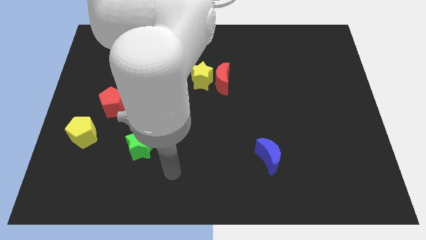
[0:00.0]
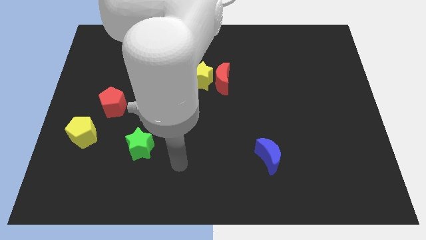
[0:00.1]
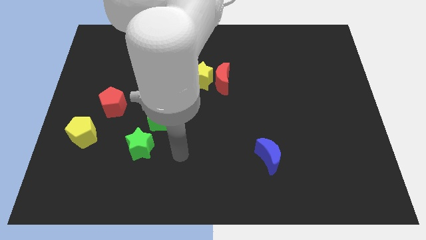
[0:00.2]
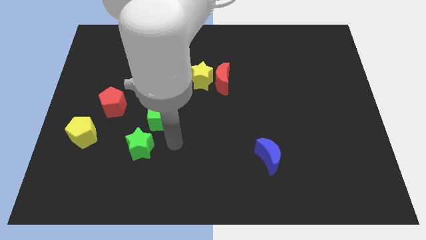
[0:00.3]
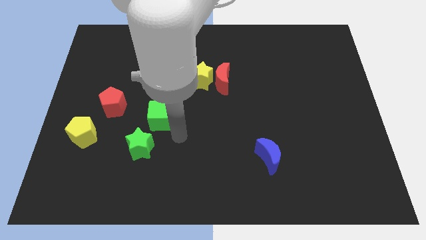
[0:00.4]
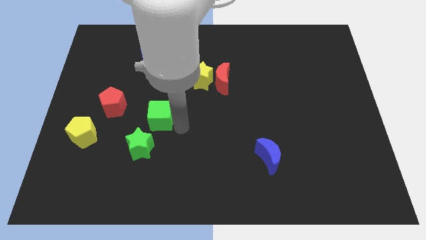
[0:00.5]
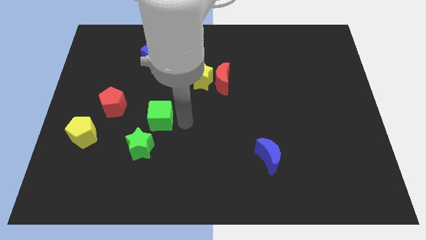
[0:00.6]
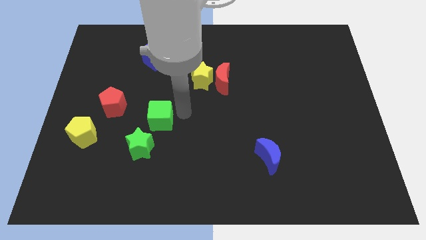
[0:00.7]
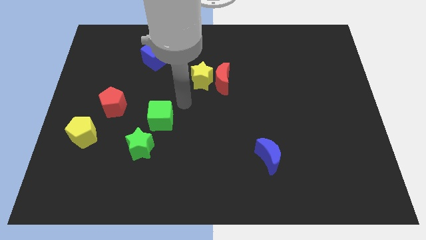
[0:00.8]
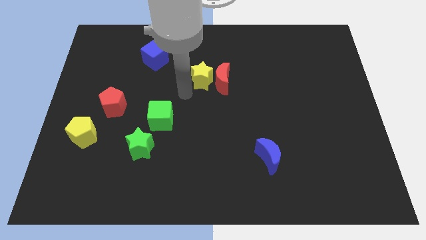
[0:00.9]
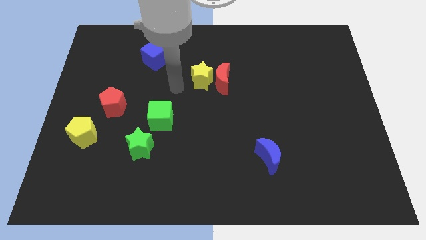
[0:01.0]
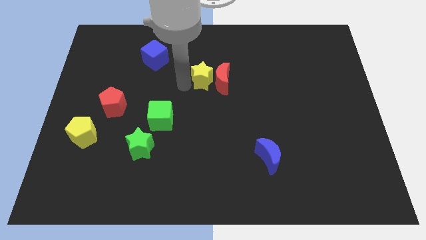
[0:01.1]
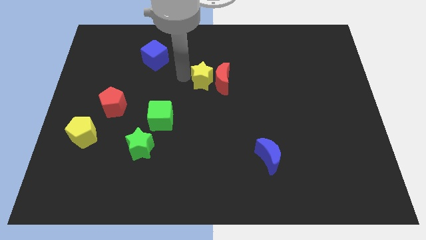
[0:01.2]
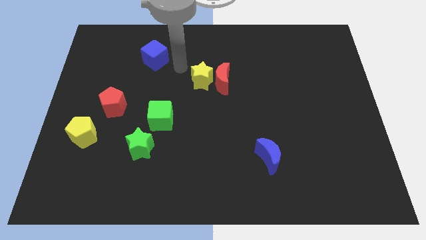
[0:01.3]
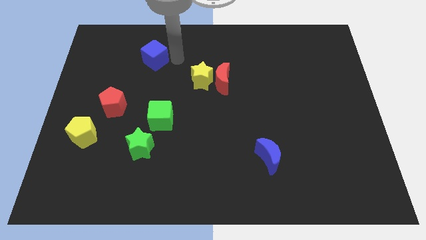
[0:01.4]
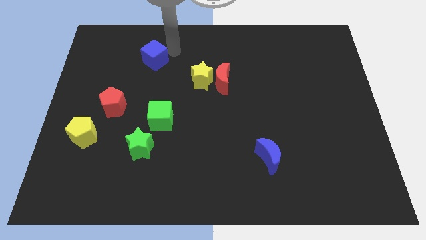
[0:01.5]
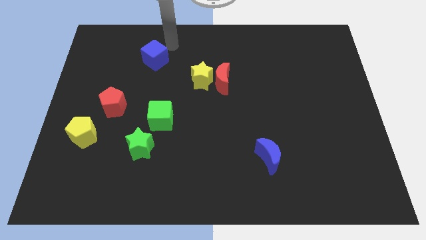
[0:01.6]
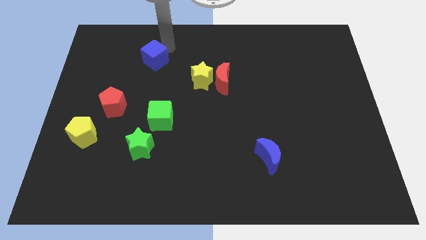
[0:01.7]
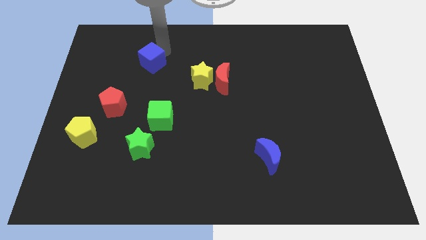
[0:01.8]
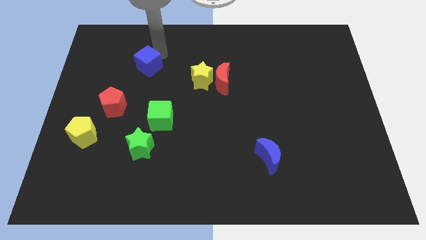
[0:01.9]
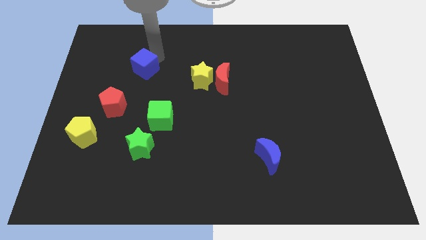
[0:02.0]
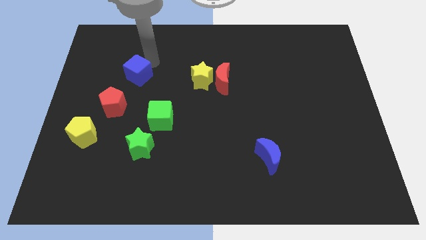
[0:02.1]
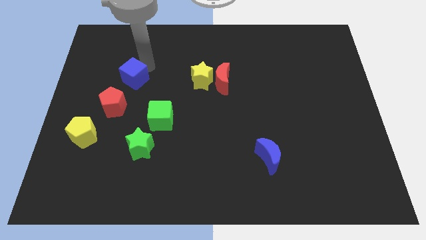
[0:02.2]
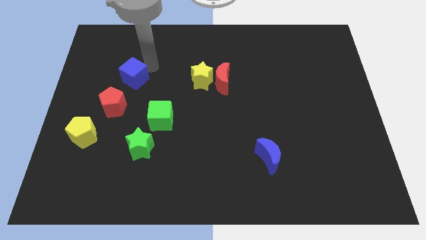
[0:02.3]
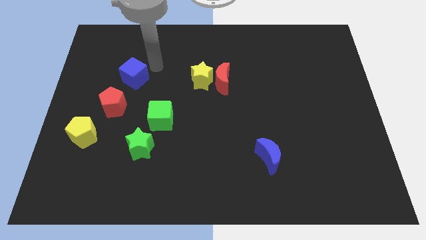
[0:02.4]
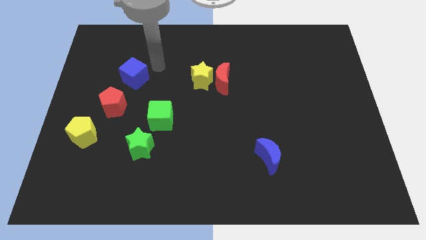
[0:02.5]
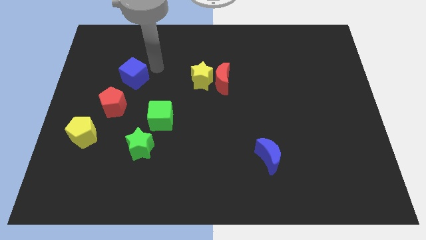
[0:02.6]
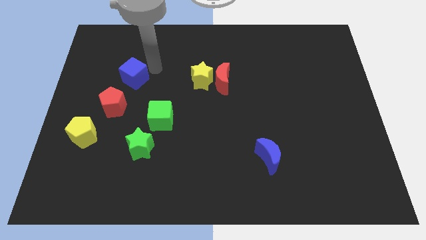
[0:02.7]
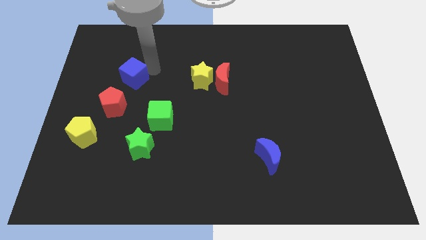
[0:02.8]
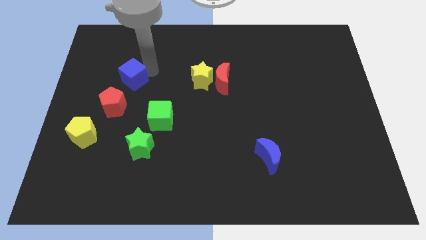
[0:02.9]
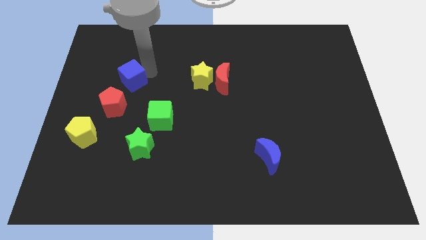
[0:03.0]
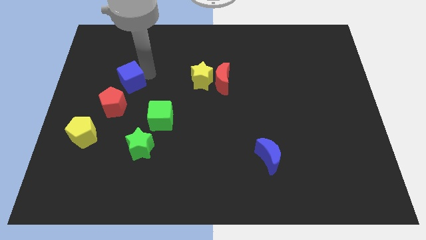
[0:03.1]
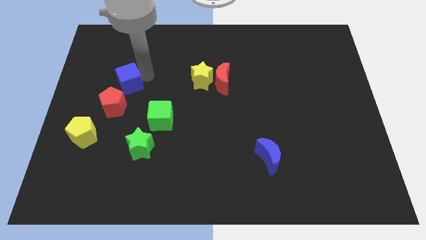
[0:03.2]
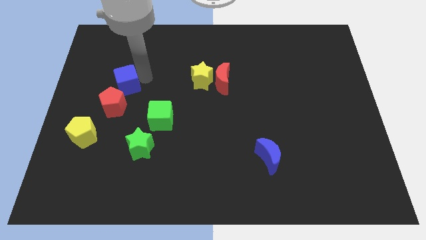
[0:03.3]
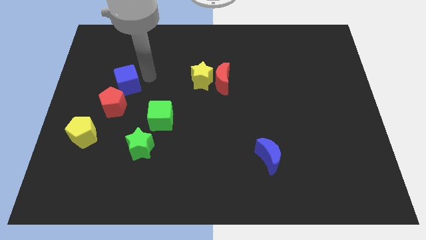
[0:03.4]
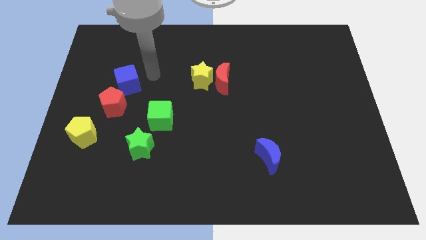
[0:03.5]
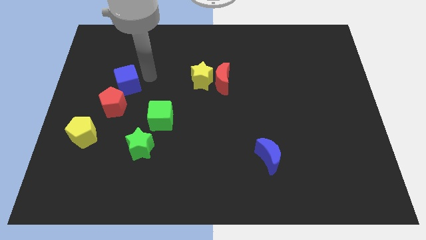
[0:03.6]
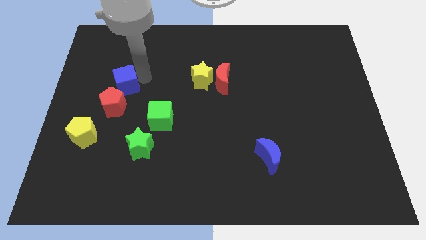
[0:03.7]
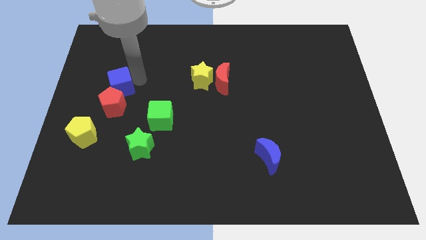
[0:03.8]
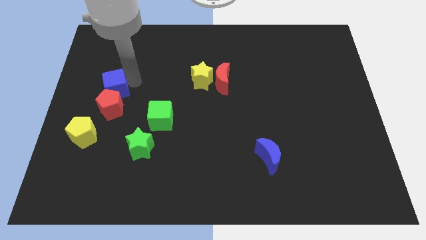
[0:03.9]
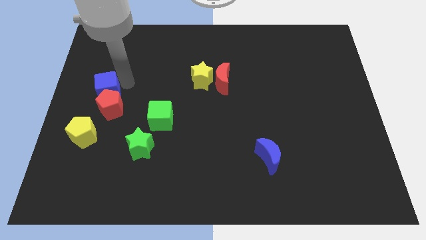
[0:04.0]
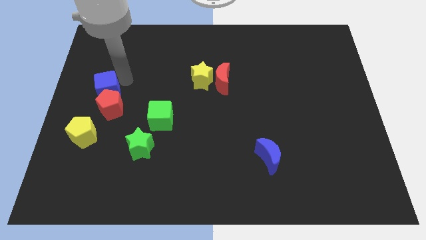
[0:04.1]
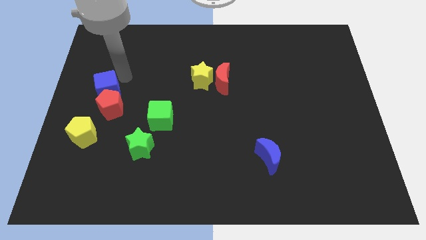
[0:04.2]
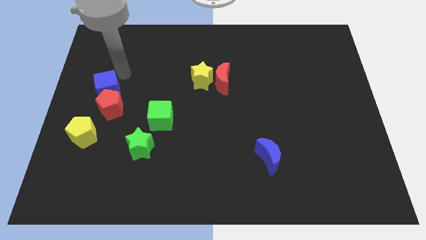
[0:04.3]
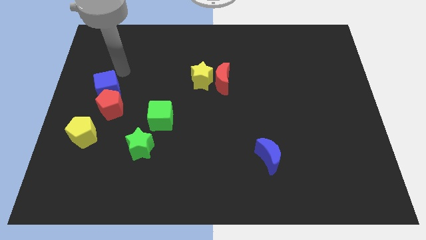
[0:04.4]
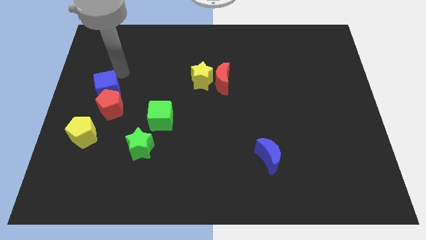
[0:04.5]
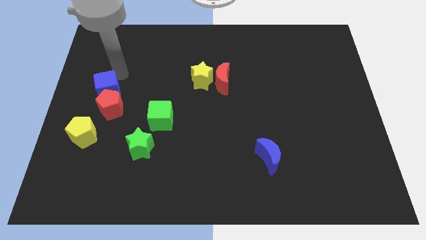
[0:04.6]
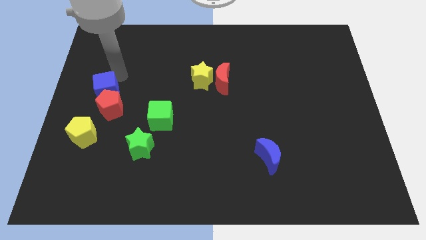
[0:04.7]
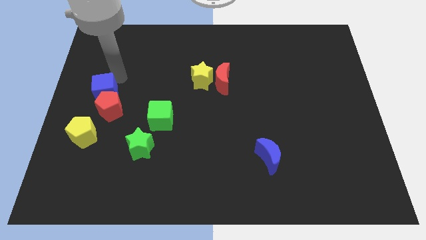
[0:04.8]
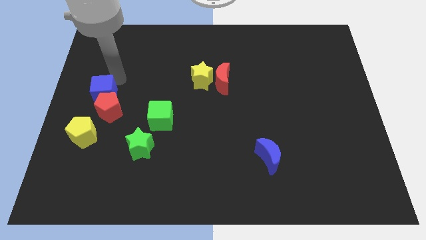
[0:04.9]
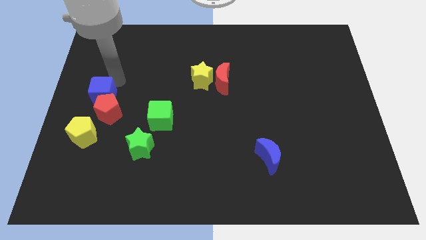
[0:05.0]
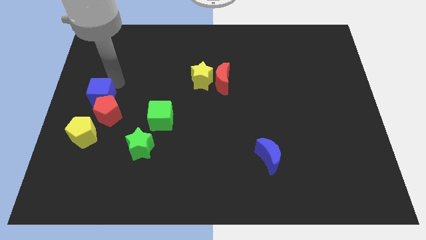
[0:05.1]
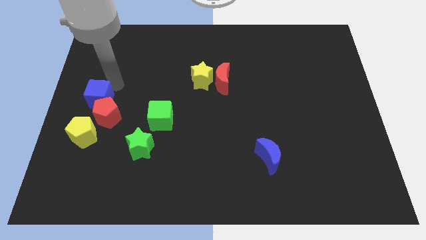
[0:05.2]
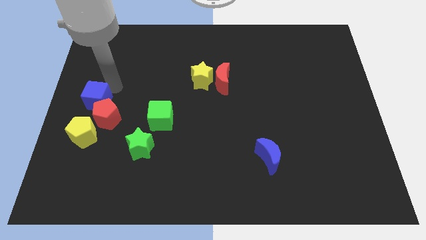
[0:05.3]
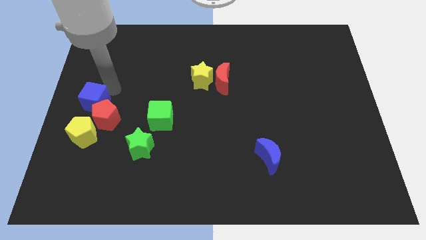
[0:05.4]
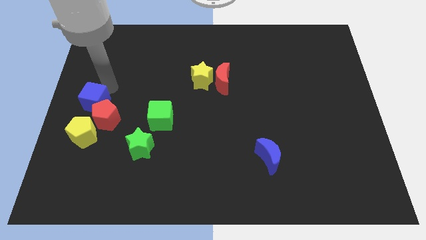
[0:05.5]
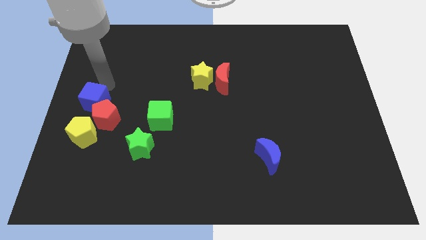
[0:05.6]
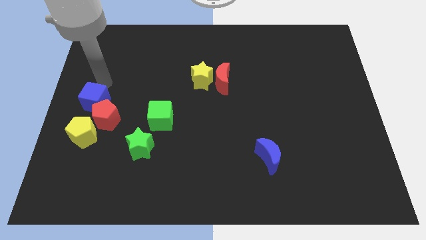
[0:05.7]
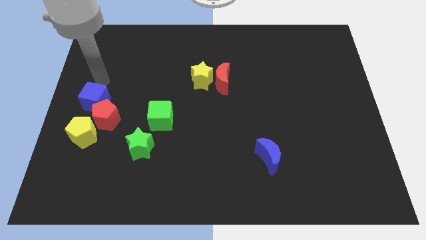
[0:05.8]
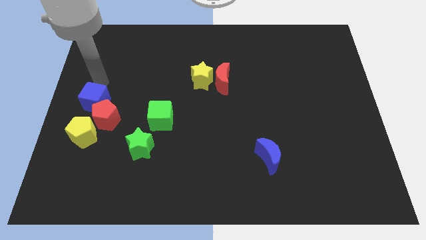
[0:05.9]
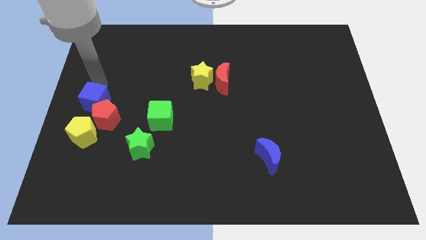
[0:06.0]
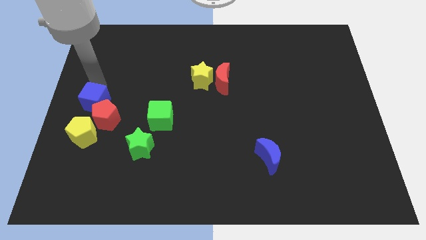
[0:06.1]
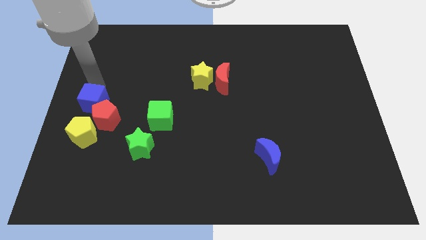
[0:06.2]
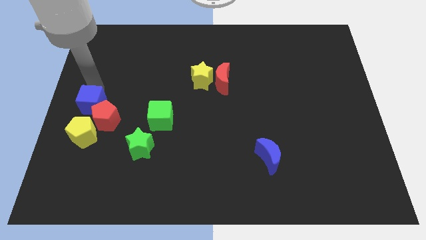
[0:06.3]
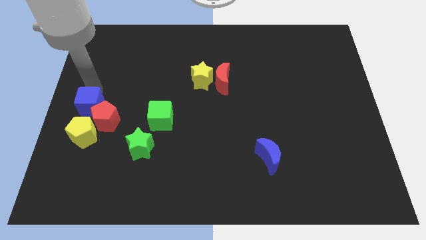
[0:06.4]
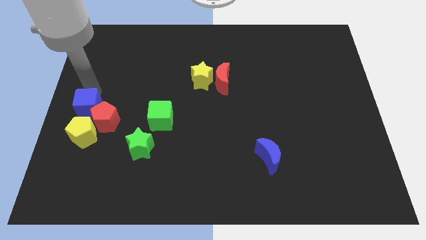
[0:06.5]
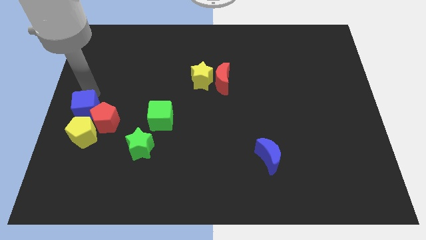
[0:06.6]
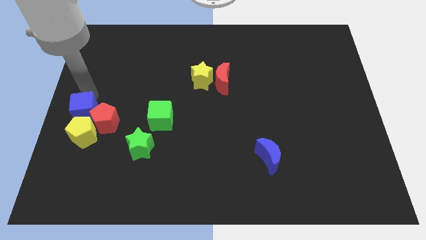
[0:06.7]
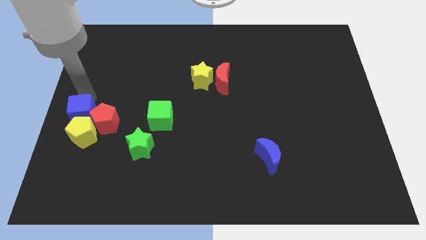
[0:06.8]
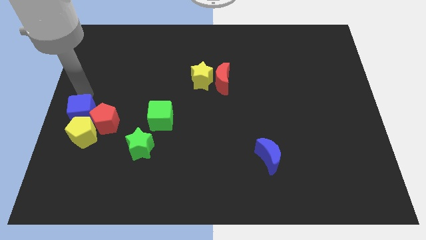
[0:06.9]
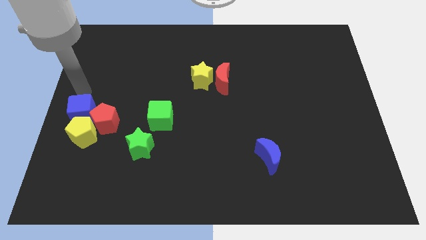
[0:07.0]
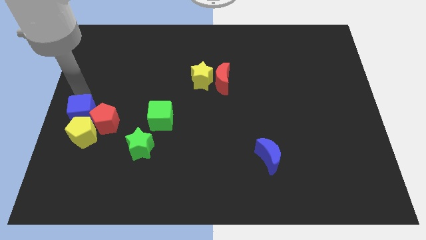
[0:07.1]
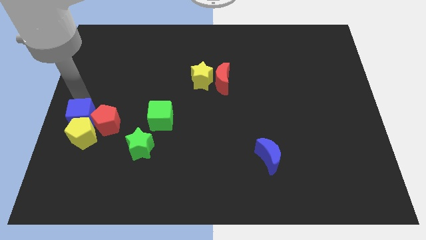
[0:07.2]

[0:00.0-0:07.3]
push the blue cube towards the yellow pentagon
